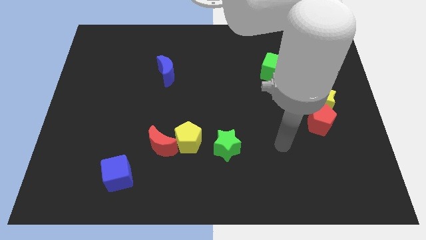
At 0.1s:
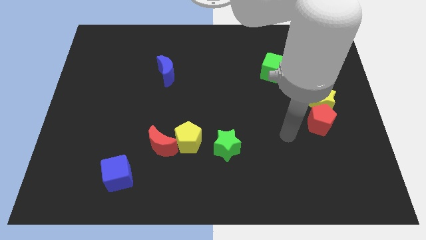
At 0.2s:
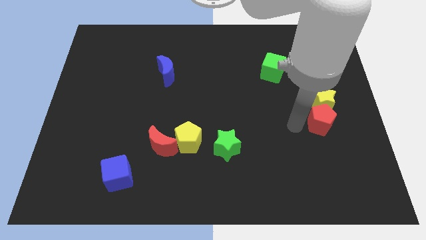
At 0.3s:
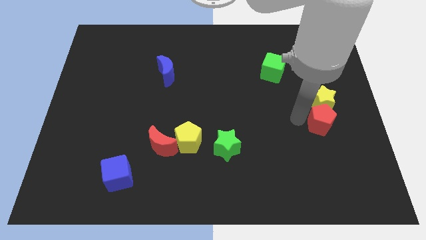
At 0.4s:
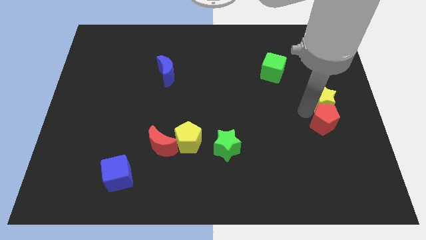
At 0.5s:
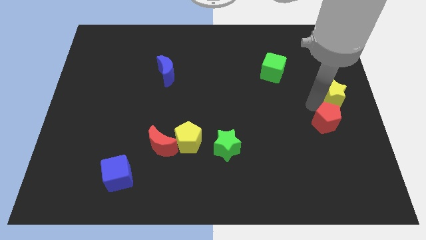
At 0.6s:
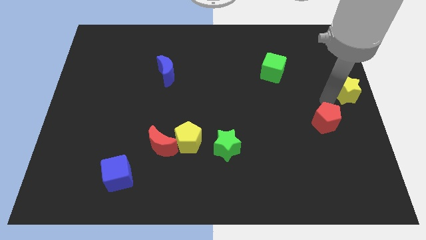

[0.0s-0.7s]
move the red pentagon away from the yellow star

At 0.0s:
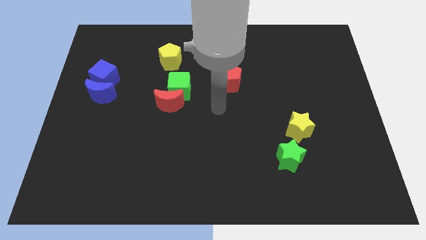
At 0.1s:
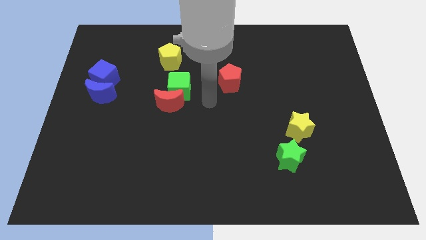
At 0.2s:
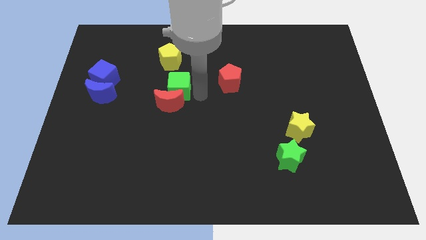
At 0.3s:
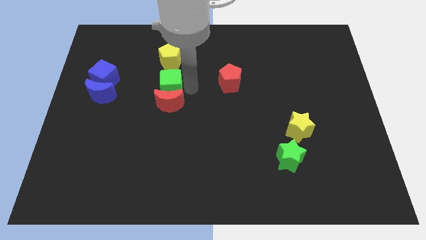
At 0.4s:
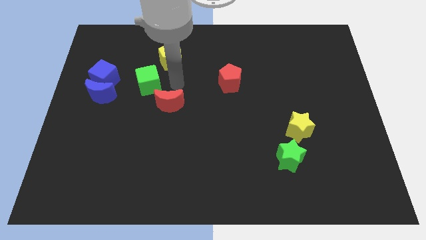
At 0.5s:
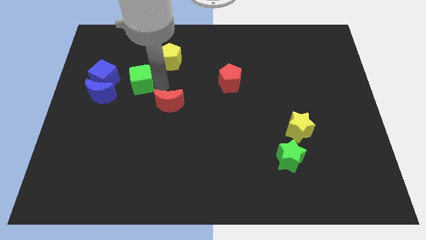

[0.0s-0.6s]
pull the red moon apart from the green cube

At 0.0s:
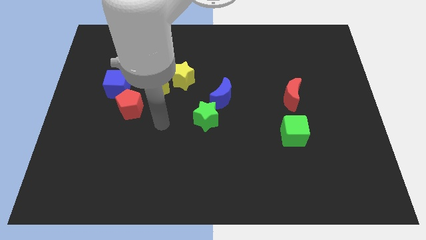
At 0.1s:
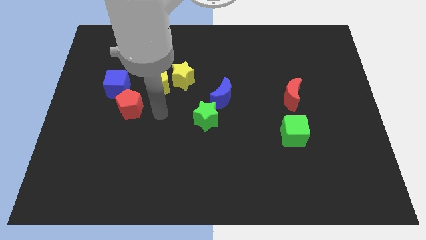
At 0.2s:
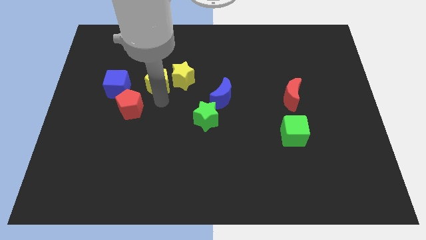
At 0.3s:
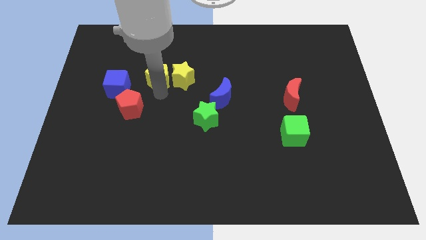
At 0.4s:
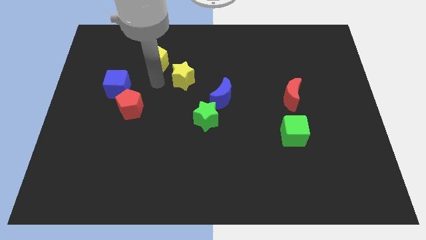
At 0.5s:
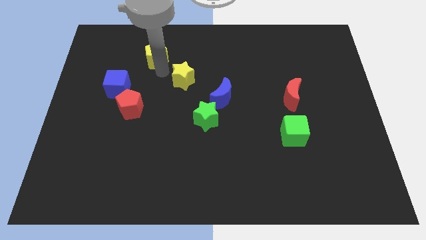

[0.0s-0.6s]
separate the yellow star from the yellow pentagon

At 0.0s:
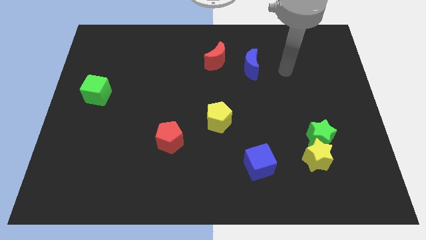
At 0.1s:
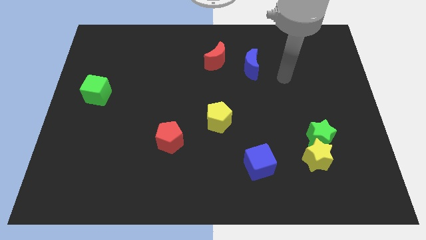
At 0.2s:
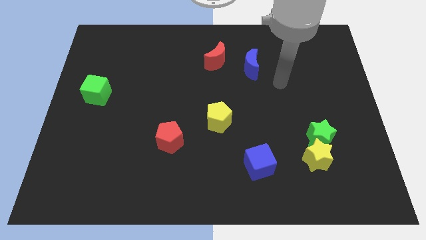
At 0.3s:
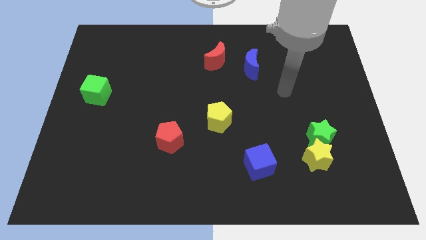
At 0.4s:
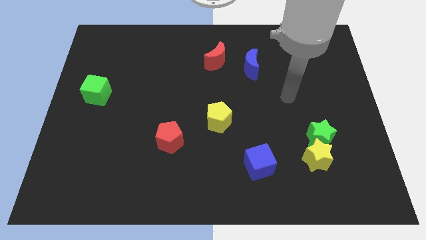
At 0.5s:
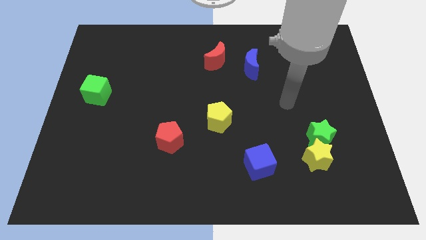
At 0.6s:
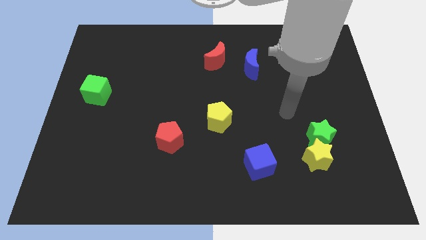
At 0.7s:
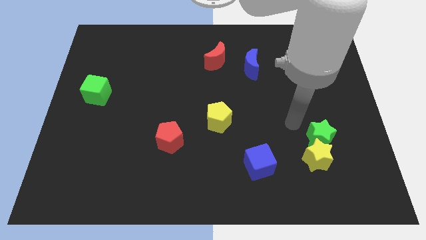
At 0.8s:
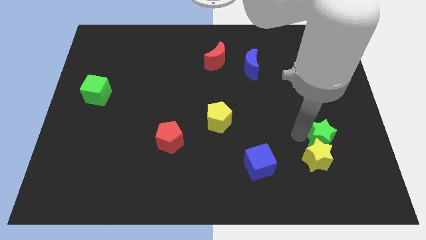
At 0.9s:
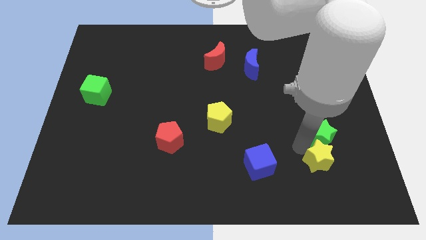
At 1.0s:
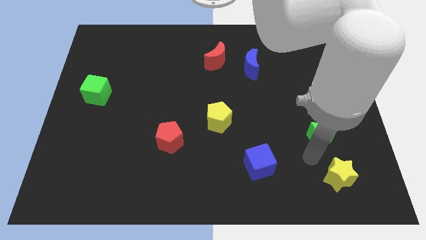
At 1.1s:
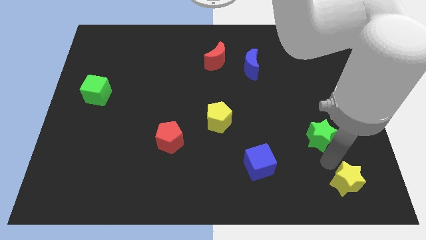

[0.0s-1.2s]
separate the green star from the yellow star

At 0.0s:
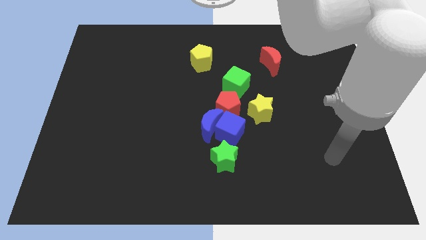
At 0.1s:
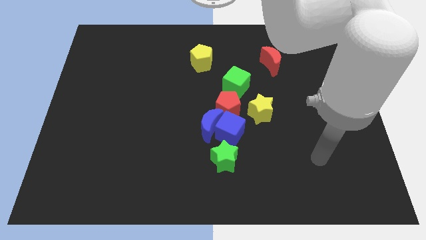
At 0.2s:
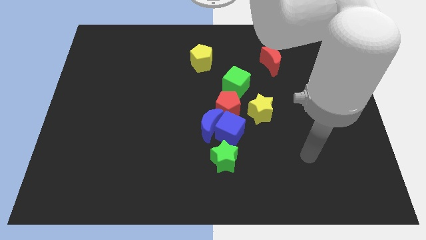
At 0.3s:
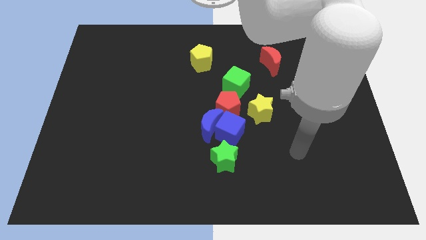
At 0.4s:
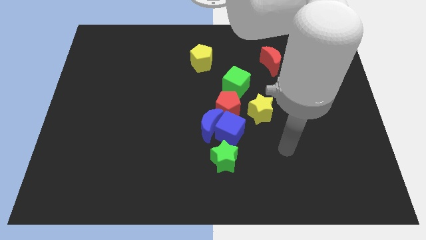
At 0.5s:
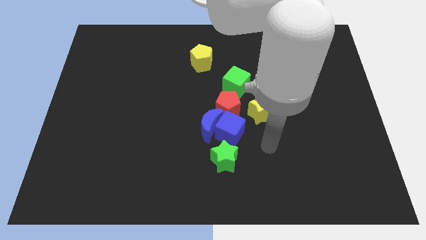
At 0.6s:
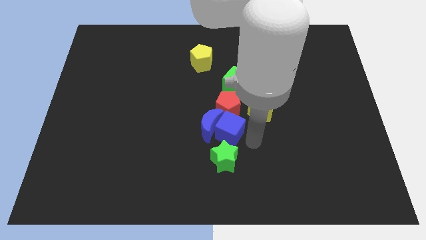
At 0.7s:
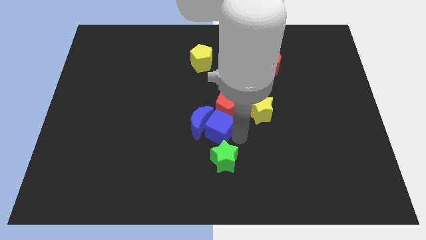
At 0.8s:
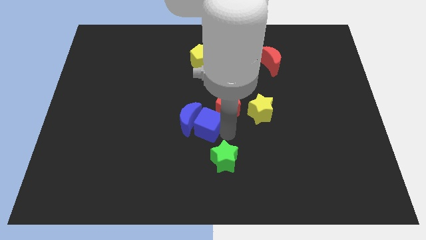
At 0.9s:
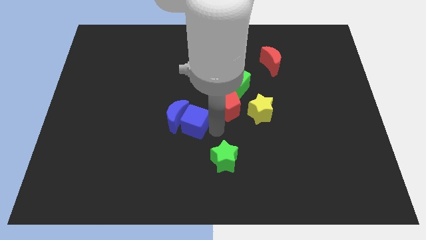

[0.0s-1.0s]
move the blue moon away from the group of blocks

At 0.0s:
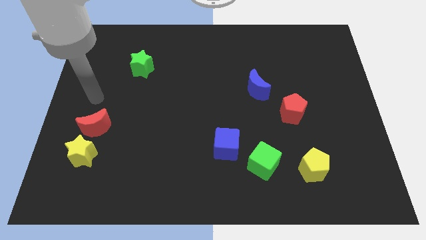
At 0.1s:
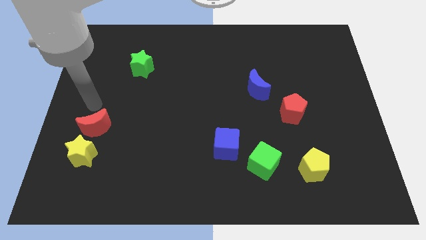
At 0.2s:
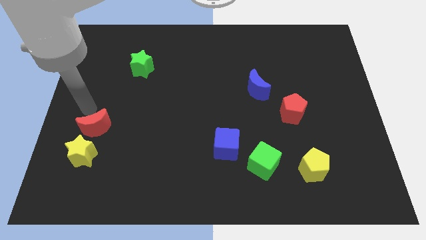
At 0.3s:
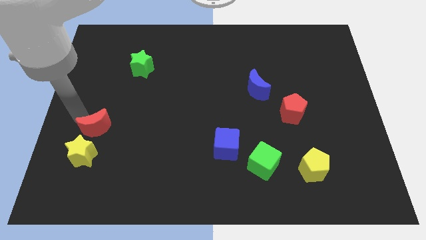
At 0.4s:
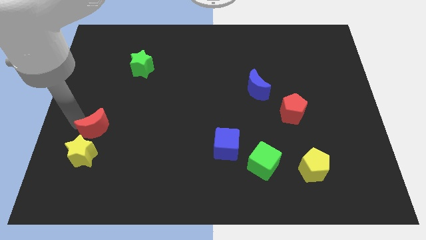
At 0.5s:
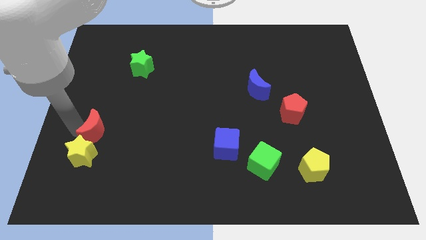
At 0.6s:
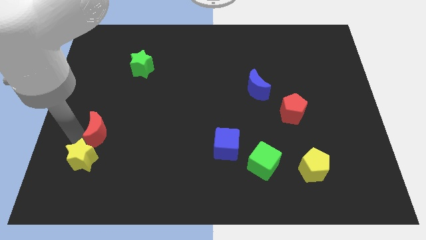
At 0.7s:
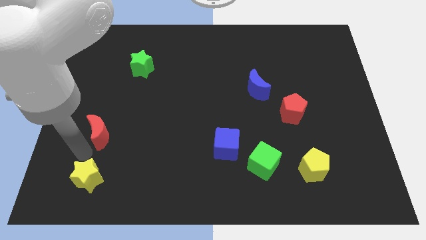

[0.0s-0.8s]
pull the red moon apart from the yellow star

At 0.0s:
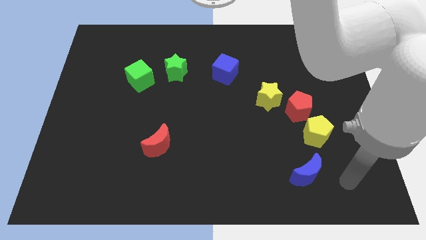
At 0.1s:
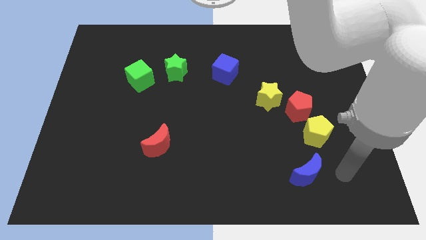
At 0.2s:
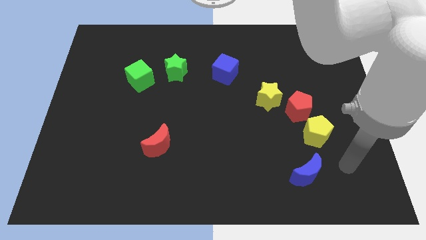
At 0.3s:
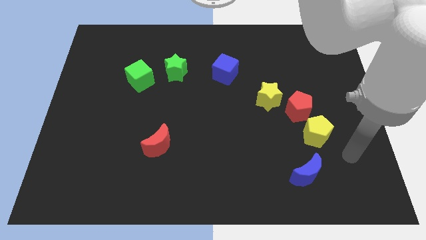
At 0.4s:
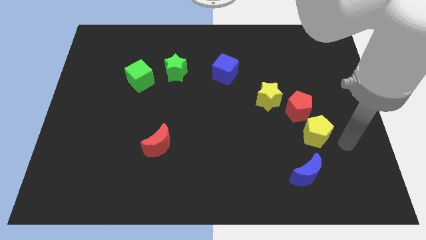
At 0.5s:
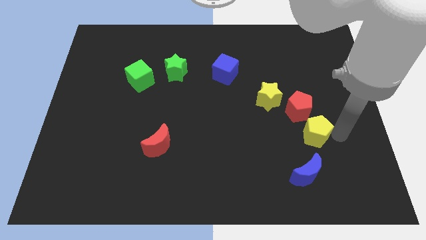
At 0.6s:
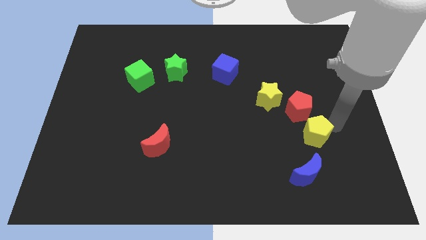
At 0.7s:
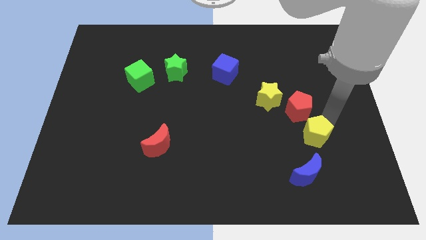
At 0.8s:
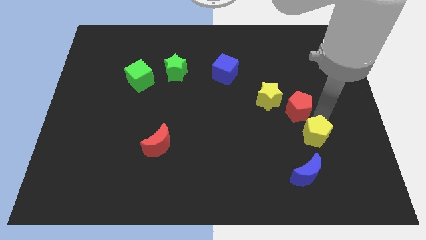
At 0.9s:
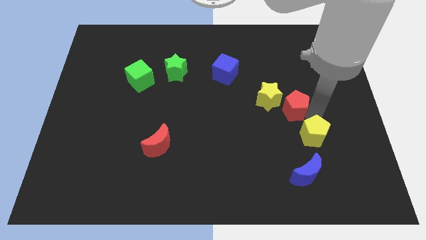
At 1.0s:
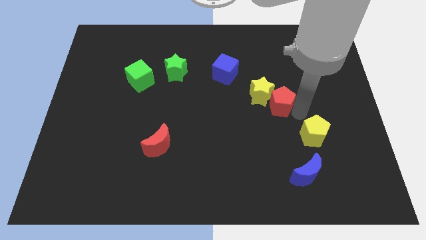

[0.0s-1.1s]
pull the yellow pentagon apart from the red pentagon

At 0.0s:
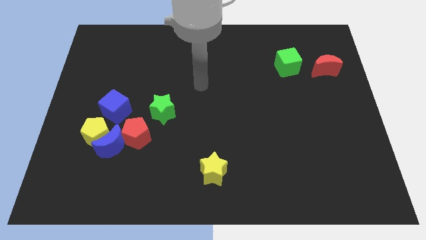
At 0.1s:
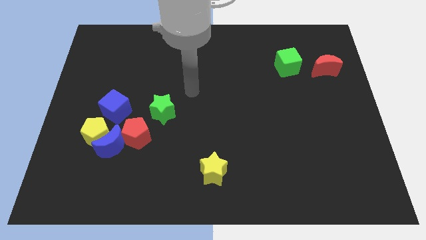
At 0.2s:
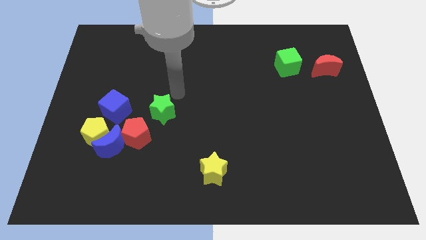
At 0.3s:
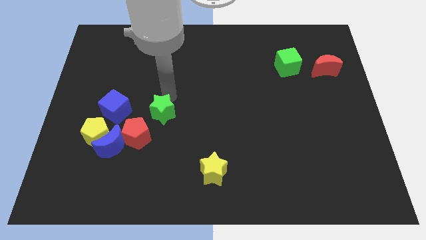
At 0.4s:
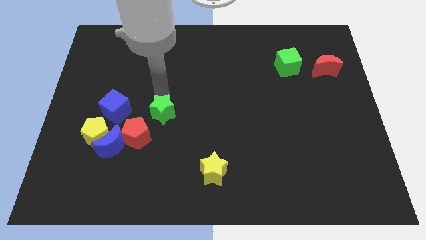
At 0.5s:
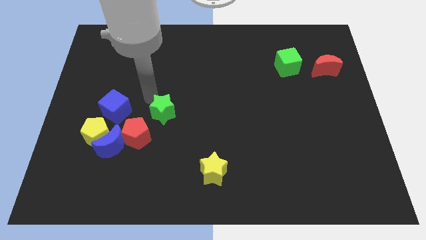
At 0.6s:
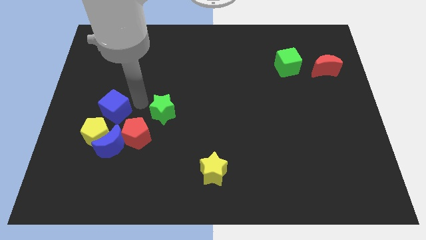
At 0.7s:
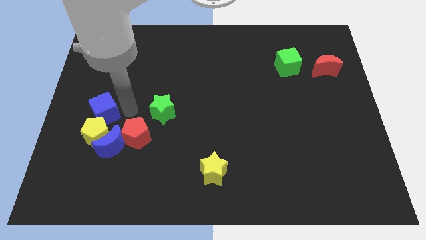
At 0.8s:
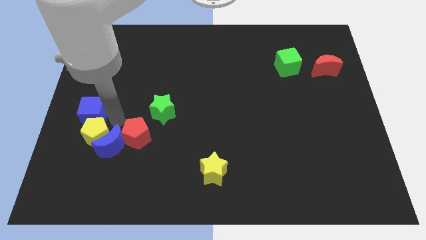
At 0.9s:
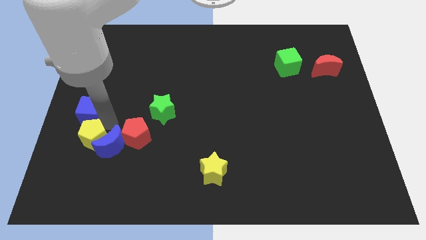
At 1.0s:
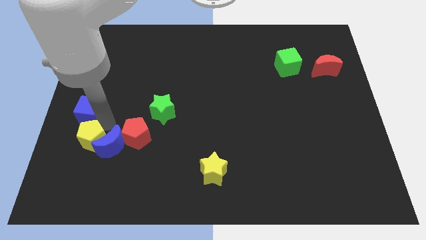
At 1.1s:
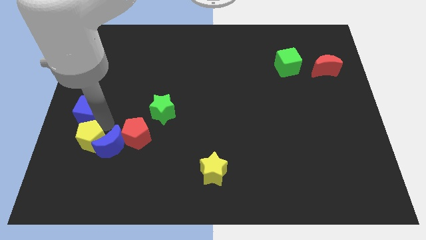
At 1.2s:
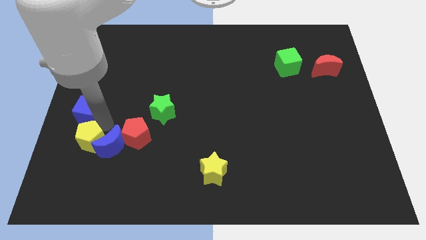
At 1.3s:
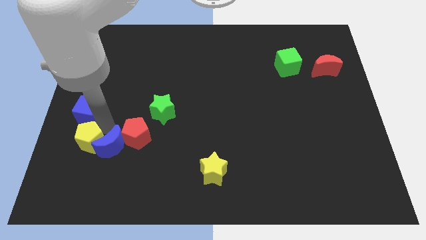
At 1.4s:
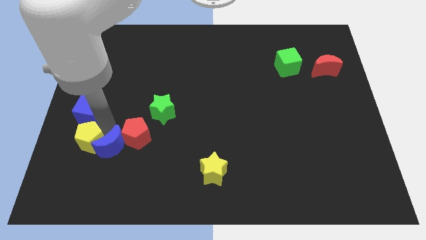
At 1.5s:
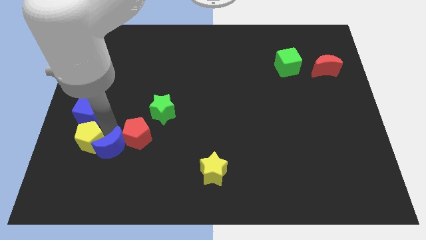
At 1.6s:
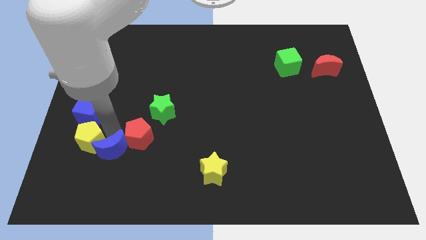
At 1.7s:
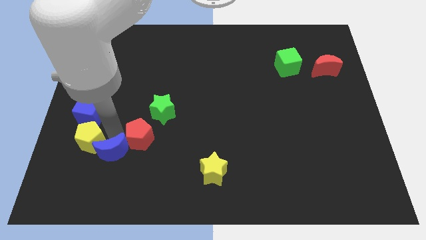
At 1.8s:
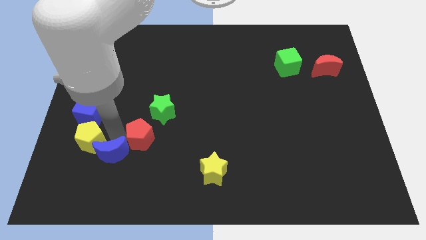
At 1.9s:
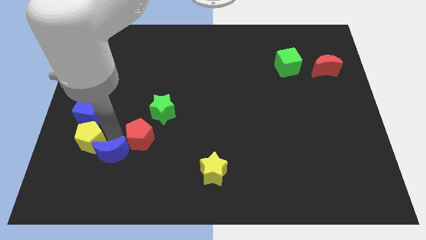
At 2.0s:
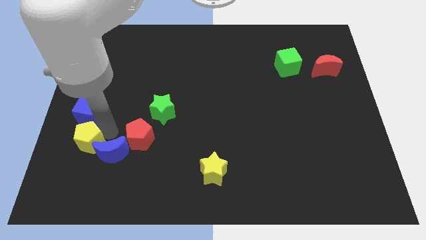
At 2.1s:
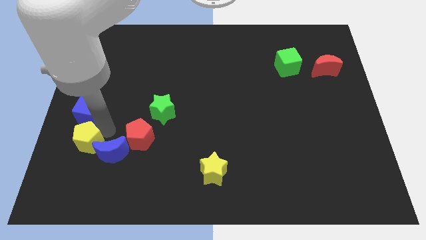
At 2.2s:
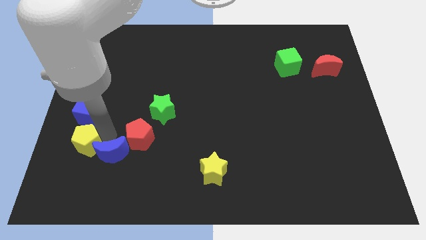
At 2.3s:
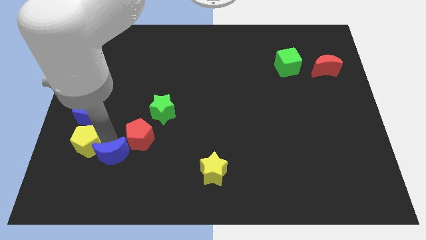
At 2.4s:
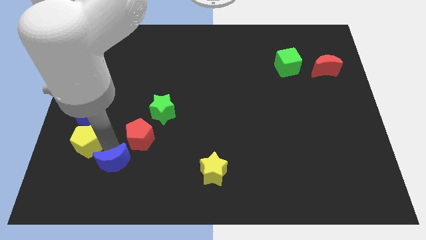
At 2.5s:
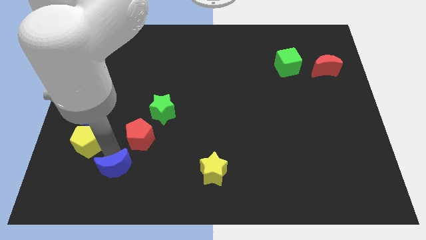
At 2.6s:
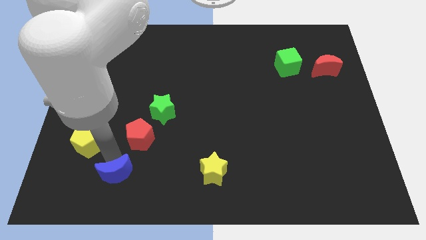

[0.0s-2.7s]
pull the blue moon apart from the yellow pentagon, red pentagon, and blue cube

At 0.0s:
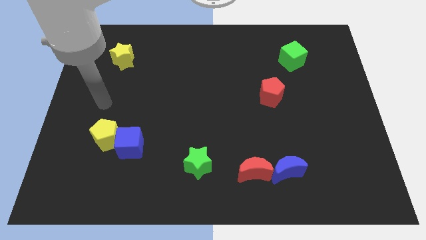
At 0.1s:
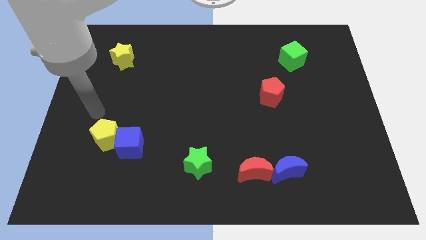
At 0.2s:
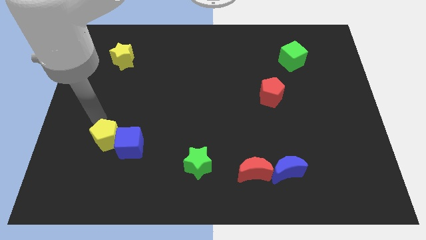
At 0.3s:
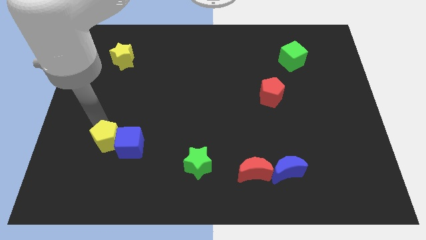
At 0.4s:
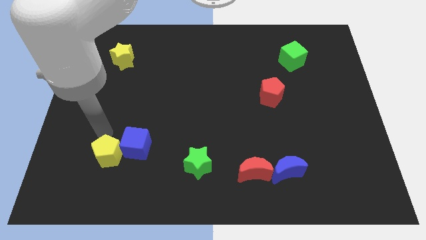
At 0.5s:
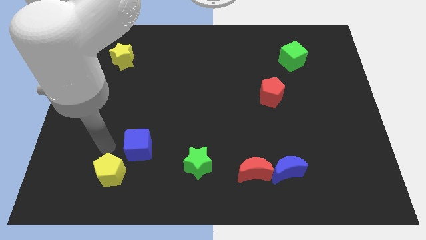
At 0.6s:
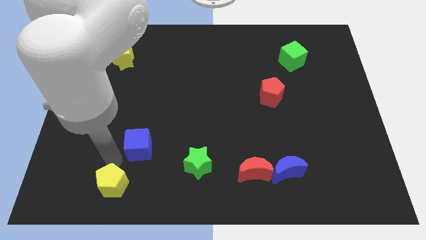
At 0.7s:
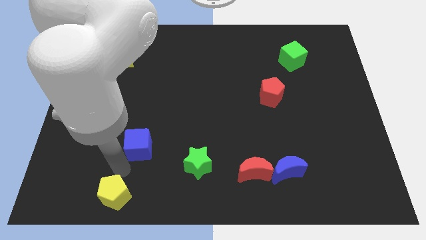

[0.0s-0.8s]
pull the blue cube apart from the yellow pentagon
